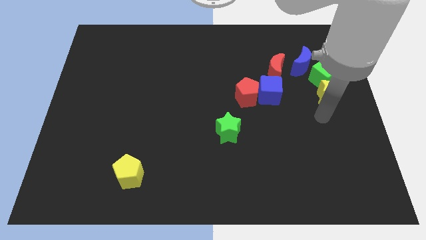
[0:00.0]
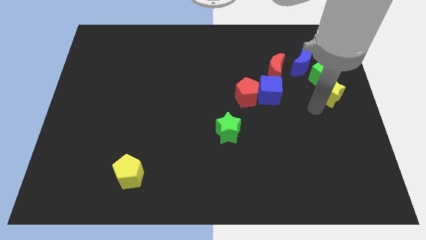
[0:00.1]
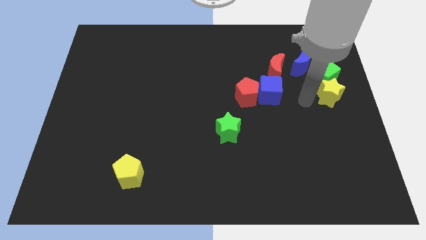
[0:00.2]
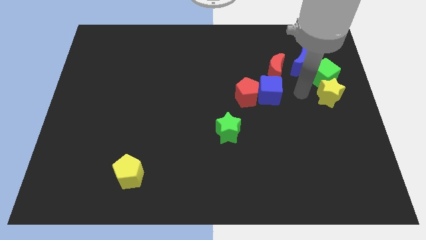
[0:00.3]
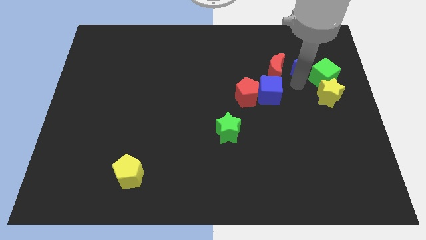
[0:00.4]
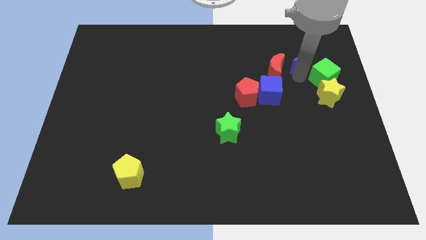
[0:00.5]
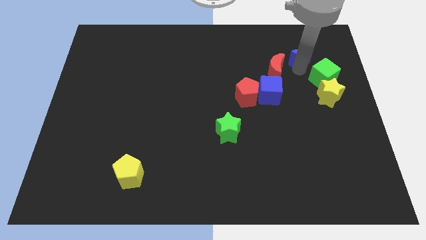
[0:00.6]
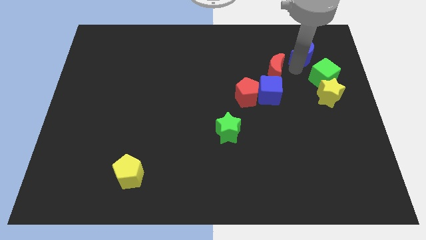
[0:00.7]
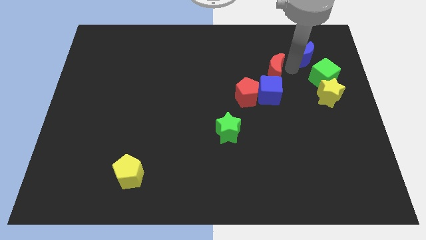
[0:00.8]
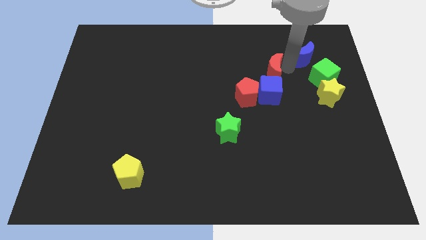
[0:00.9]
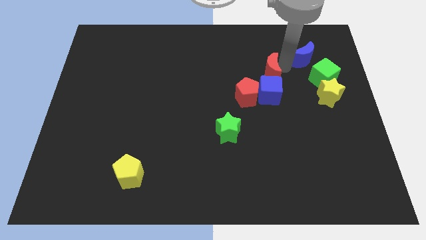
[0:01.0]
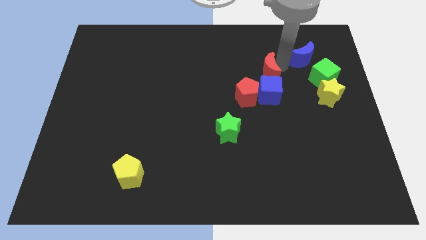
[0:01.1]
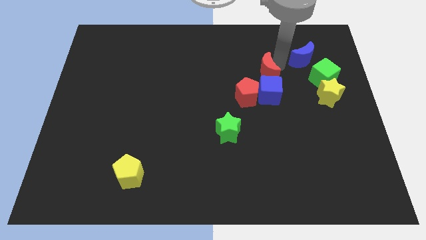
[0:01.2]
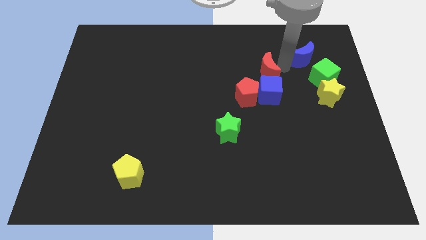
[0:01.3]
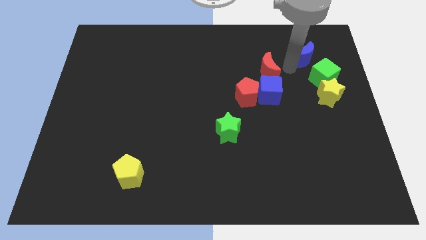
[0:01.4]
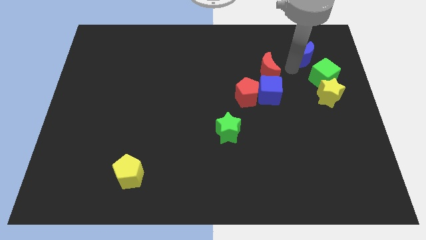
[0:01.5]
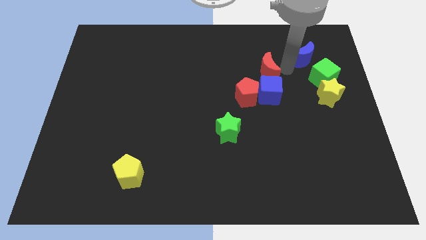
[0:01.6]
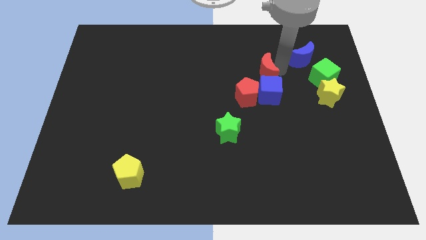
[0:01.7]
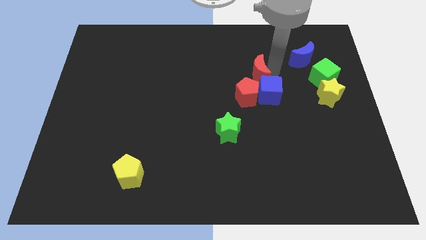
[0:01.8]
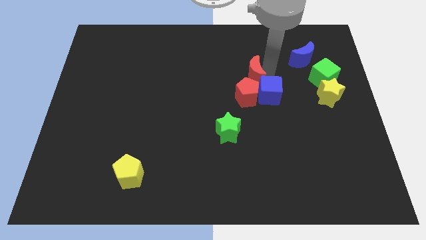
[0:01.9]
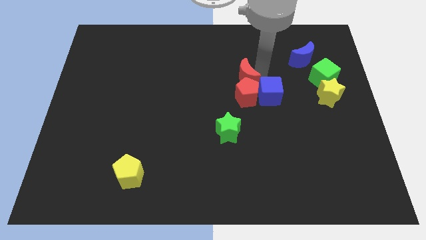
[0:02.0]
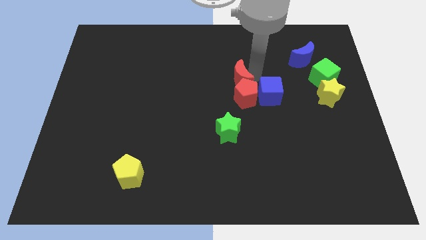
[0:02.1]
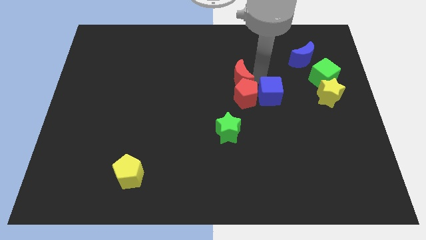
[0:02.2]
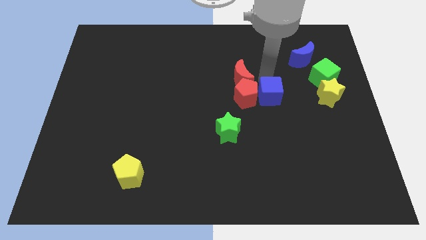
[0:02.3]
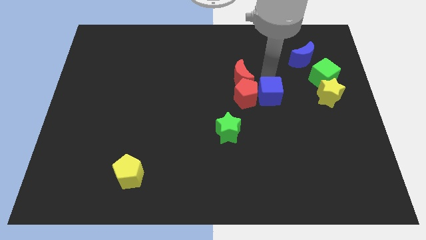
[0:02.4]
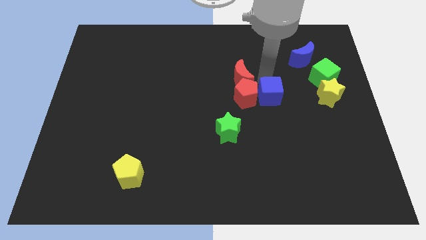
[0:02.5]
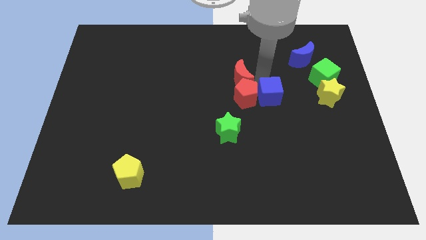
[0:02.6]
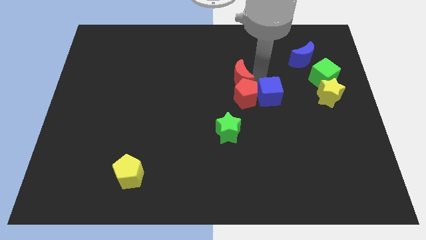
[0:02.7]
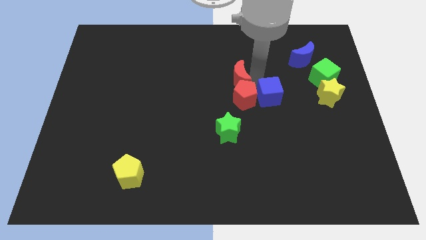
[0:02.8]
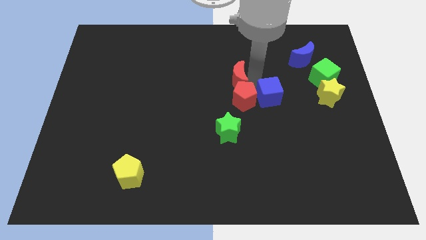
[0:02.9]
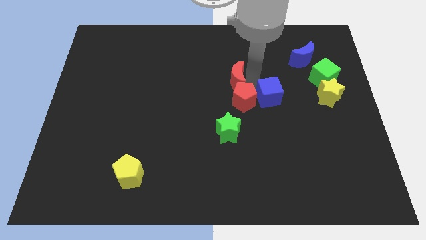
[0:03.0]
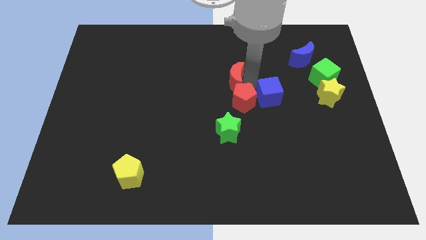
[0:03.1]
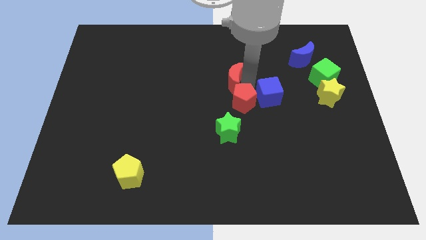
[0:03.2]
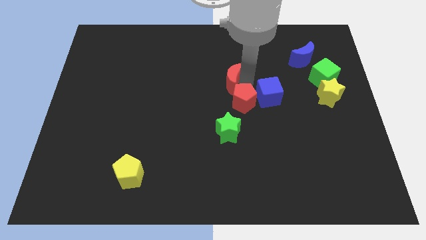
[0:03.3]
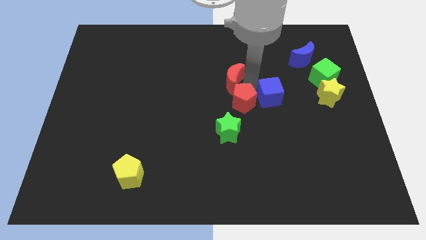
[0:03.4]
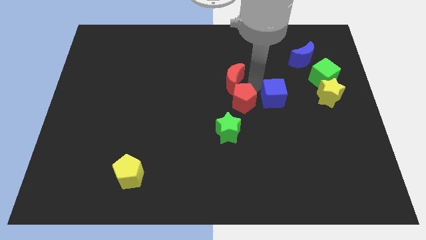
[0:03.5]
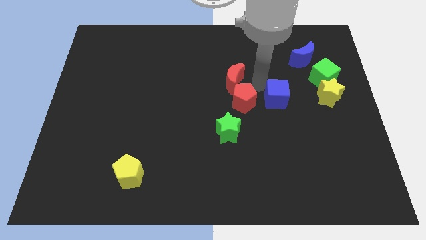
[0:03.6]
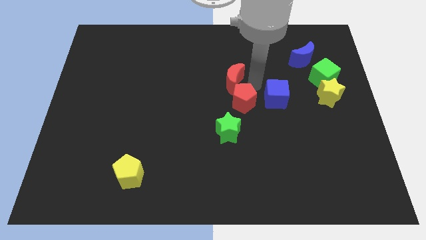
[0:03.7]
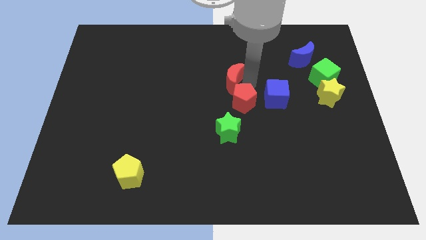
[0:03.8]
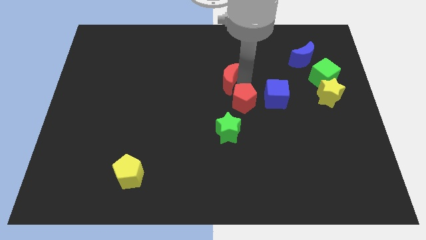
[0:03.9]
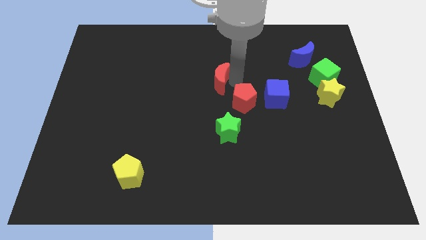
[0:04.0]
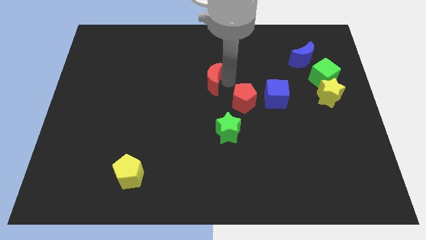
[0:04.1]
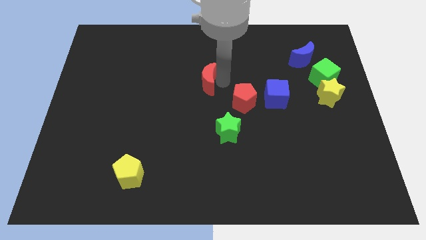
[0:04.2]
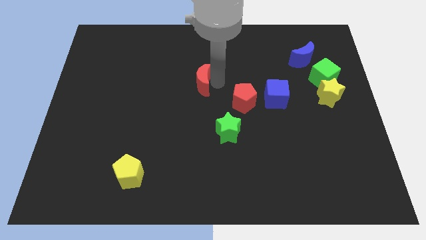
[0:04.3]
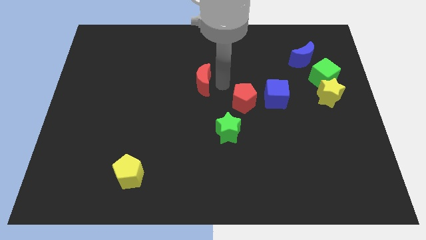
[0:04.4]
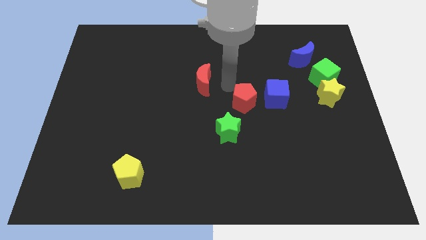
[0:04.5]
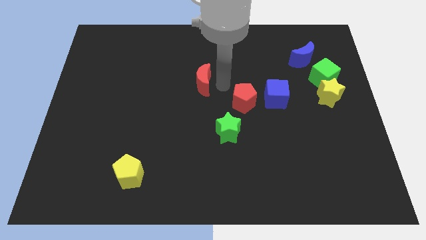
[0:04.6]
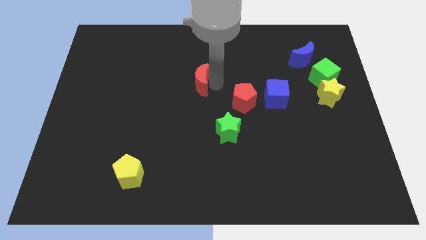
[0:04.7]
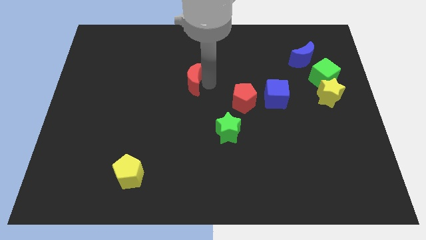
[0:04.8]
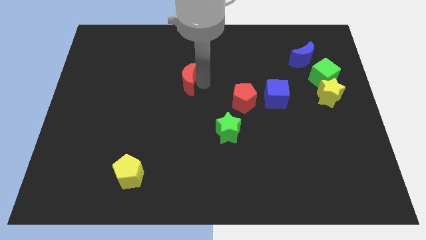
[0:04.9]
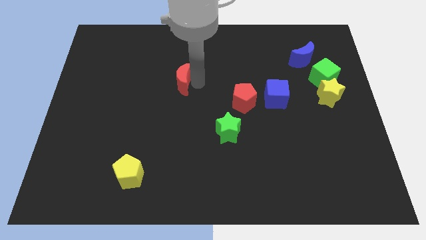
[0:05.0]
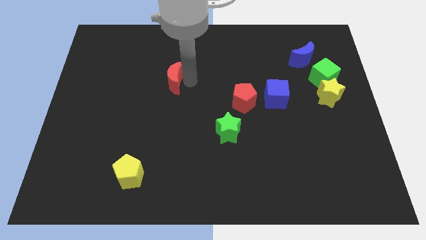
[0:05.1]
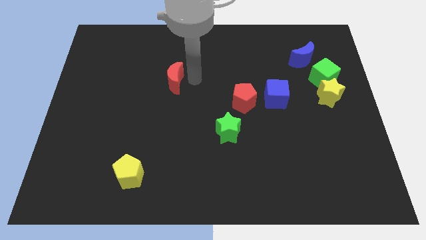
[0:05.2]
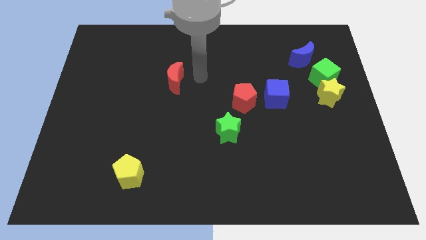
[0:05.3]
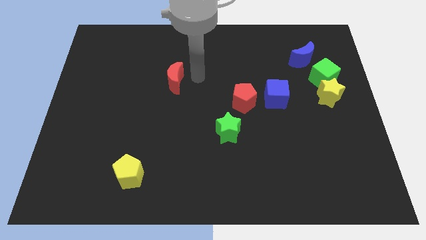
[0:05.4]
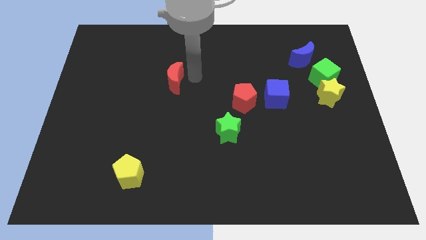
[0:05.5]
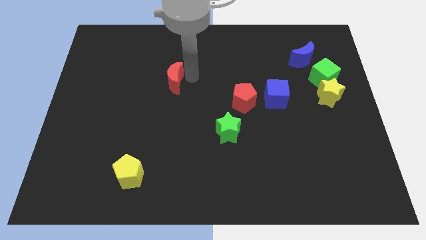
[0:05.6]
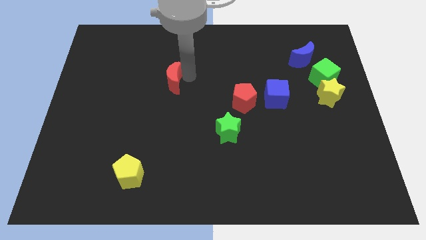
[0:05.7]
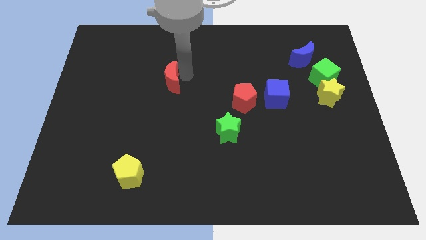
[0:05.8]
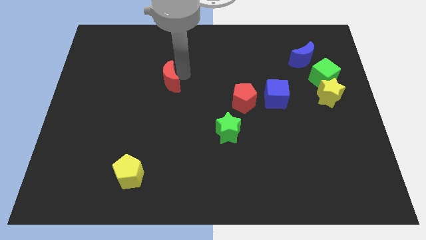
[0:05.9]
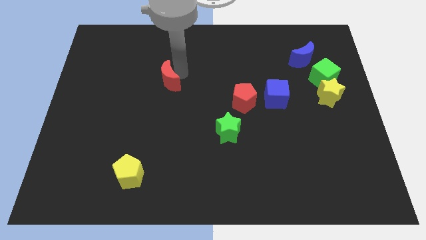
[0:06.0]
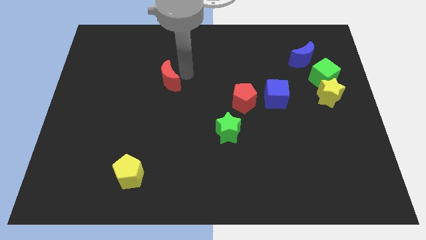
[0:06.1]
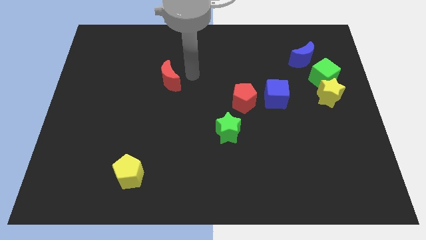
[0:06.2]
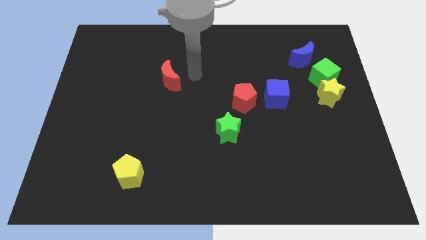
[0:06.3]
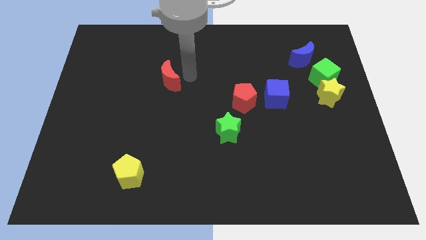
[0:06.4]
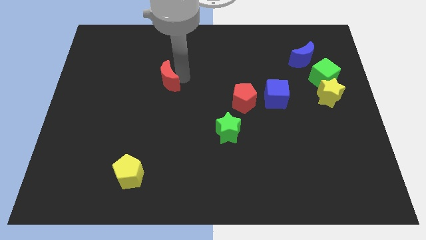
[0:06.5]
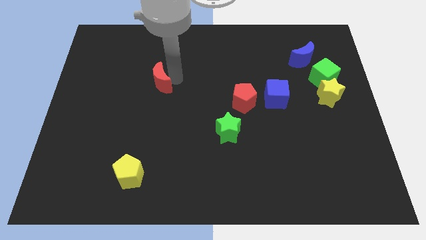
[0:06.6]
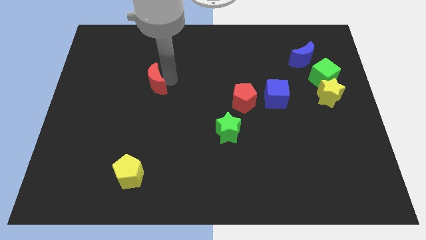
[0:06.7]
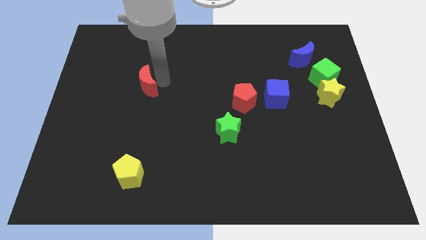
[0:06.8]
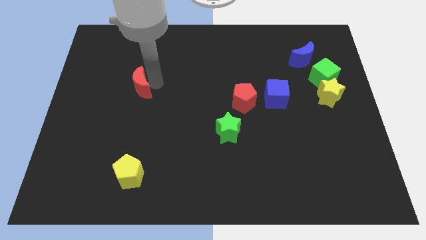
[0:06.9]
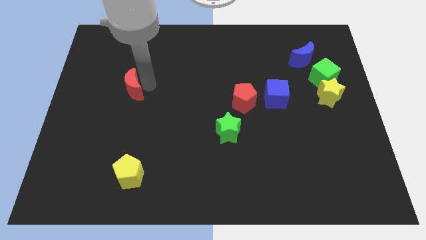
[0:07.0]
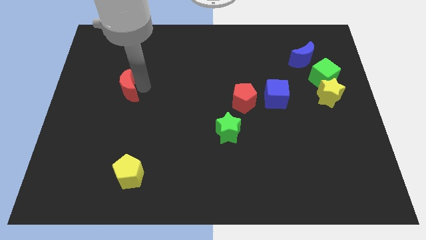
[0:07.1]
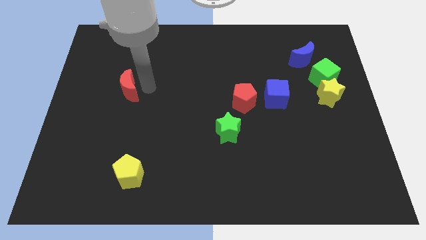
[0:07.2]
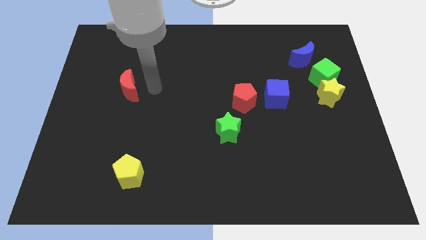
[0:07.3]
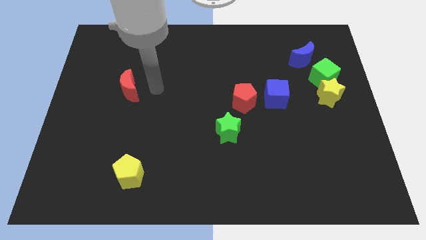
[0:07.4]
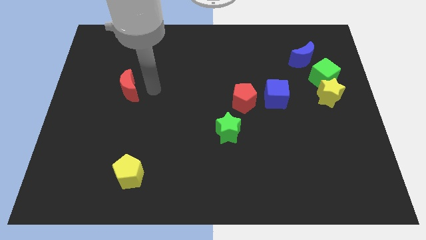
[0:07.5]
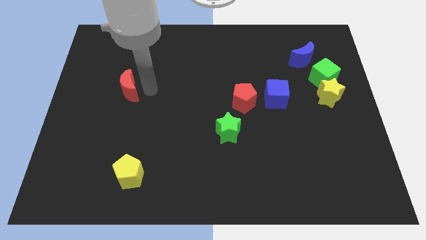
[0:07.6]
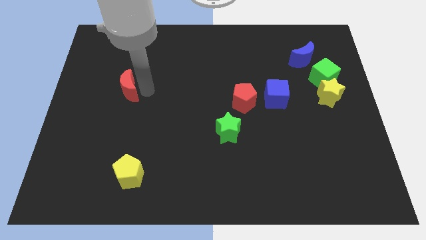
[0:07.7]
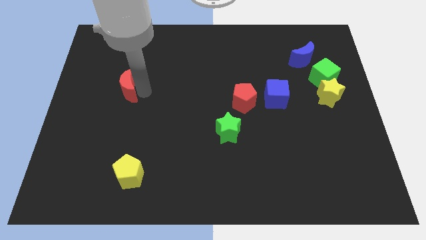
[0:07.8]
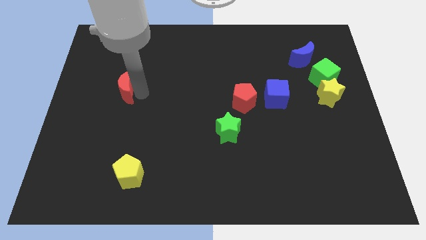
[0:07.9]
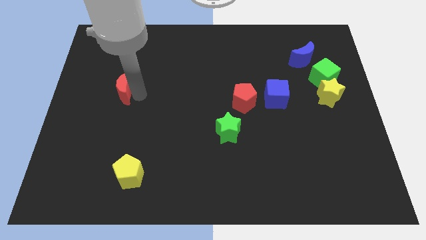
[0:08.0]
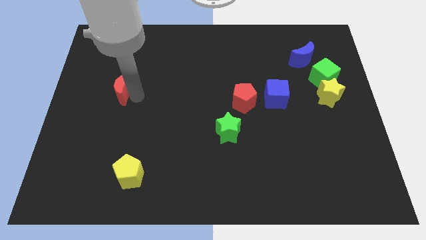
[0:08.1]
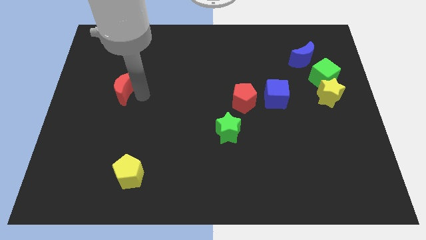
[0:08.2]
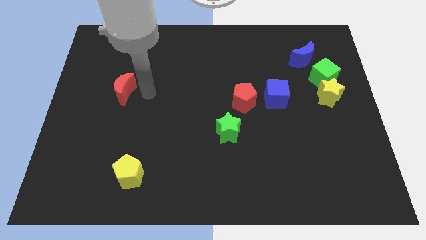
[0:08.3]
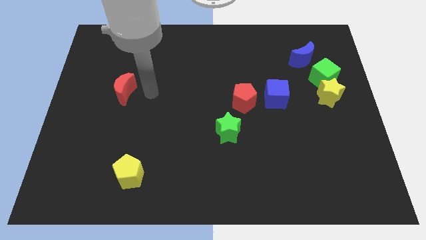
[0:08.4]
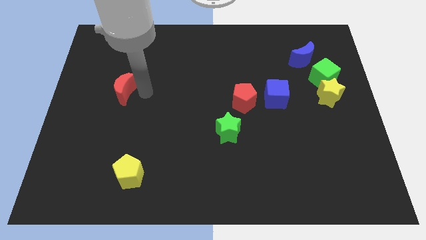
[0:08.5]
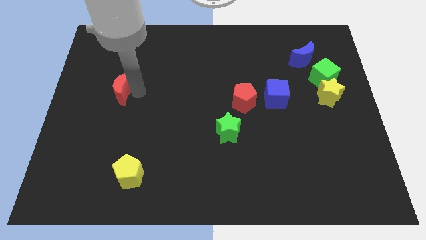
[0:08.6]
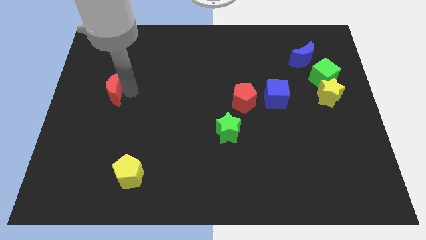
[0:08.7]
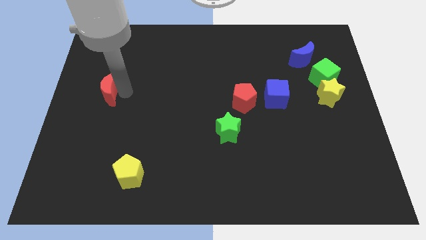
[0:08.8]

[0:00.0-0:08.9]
slide the red moon to the center left
